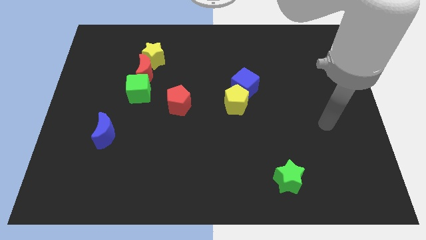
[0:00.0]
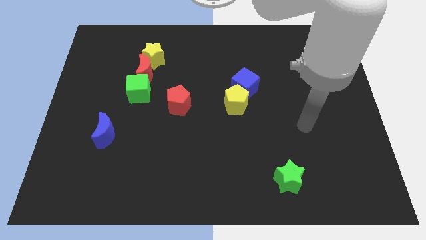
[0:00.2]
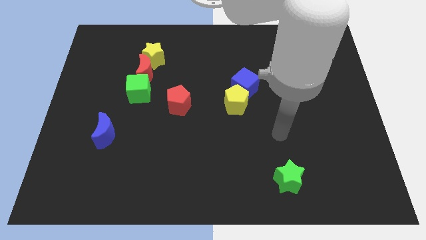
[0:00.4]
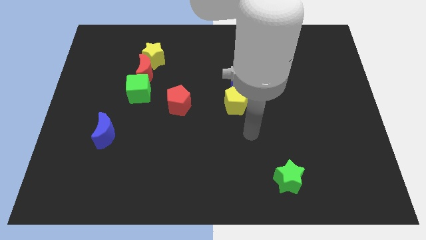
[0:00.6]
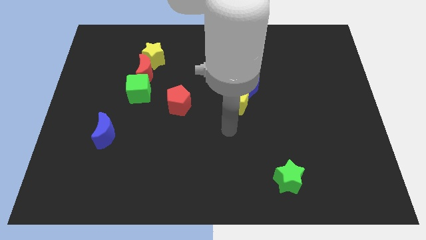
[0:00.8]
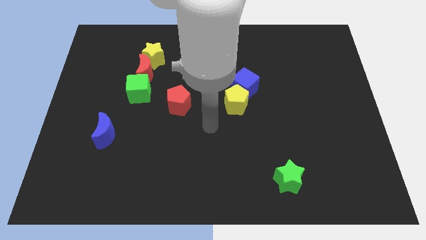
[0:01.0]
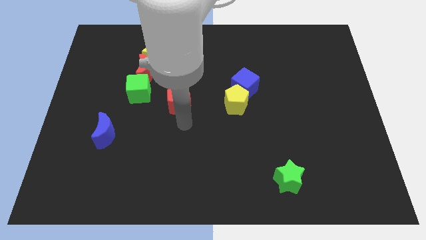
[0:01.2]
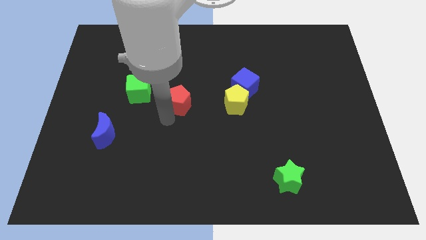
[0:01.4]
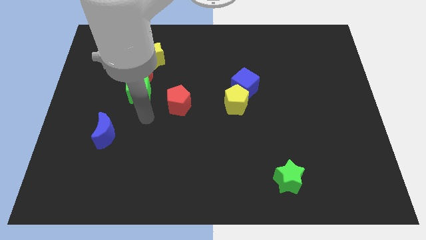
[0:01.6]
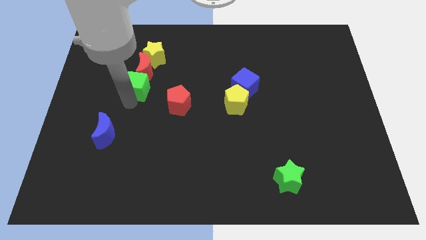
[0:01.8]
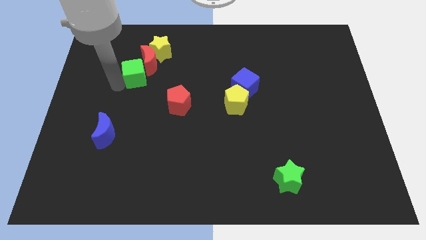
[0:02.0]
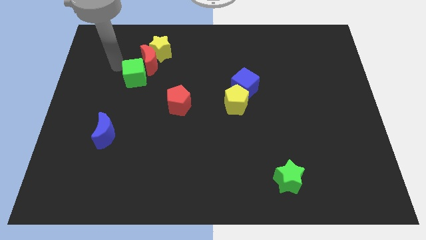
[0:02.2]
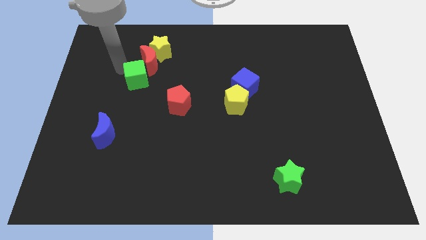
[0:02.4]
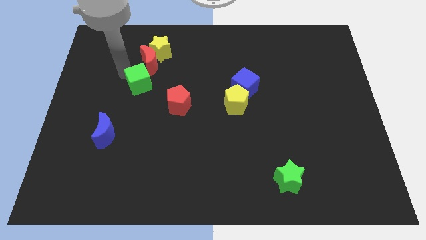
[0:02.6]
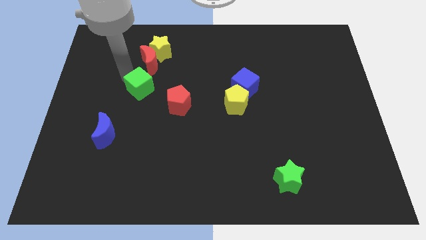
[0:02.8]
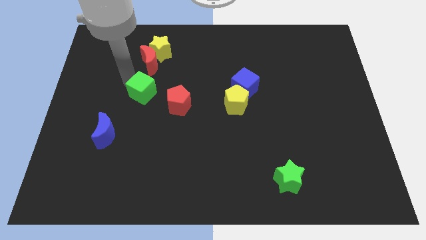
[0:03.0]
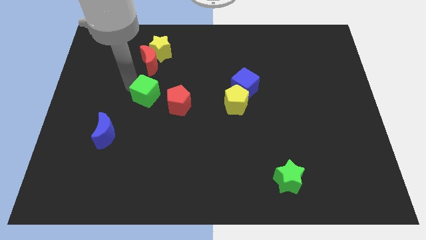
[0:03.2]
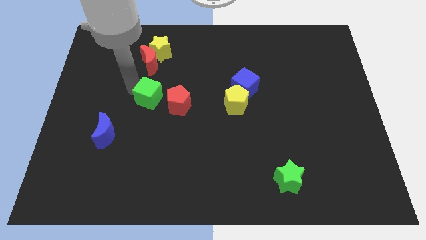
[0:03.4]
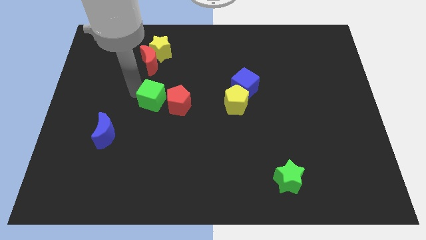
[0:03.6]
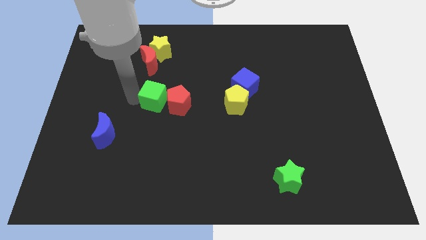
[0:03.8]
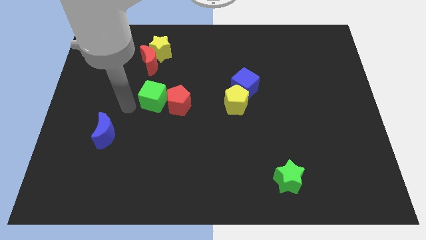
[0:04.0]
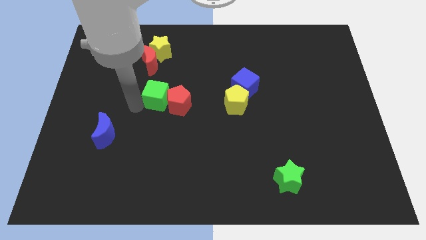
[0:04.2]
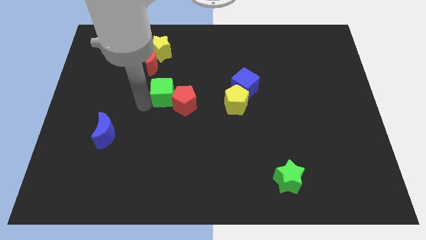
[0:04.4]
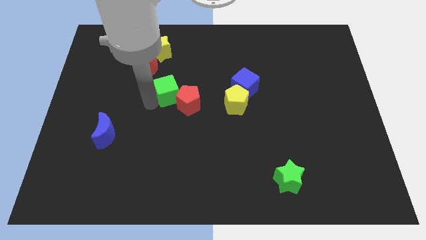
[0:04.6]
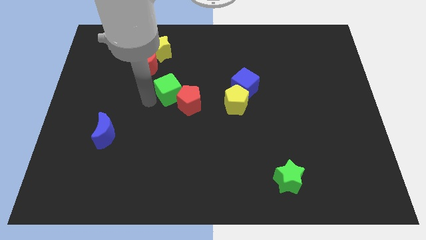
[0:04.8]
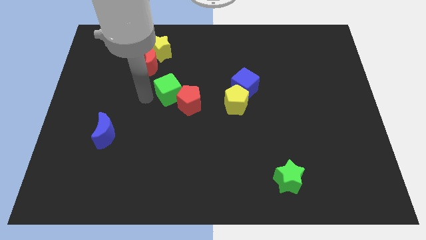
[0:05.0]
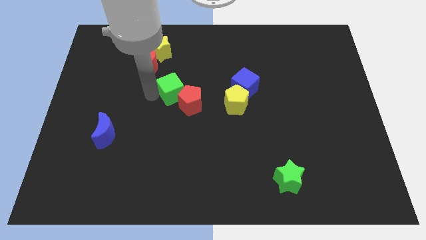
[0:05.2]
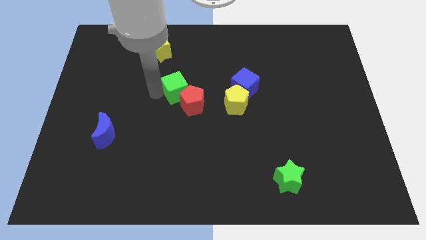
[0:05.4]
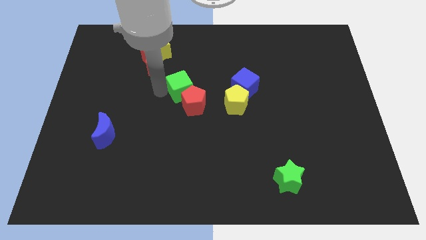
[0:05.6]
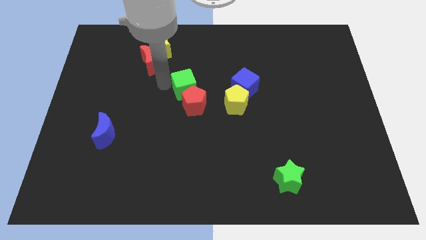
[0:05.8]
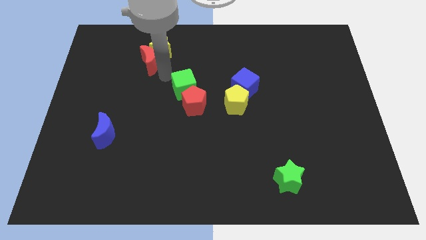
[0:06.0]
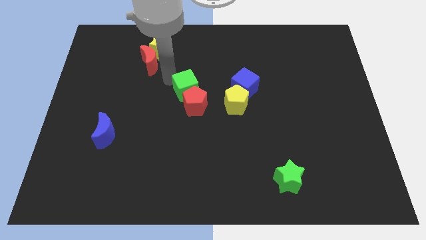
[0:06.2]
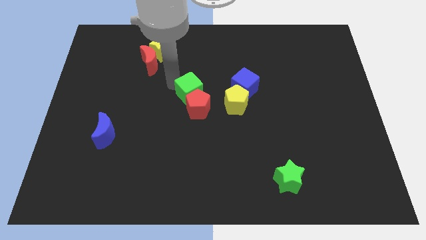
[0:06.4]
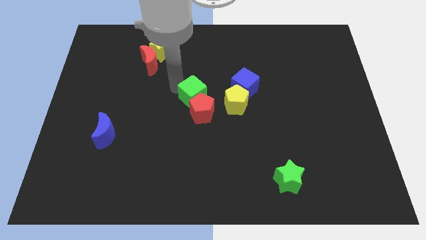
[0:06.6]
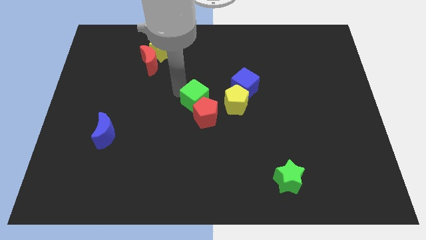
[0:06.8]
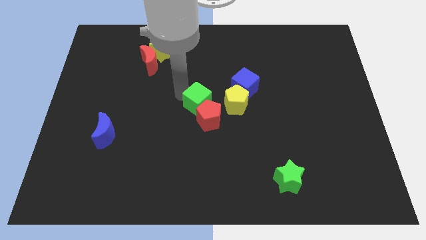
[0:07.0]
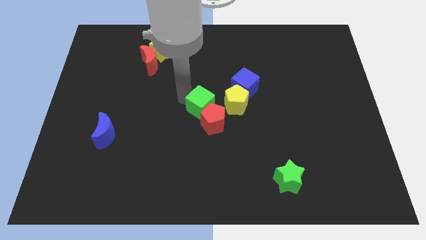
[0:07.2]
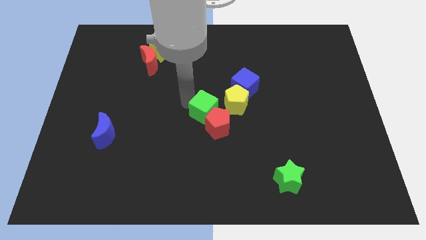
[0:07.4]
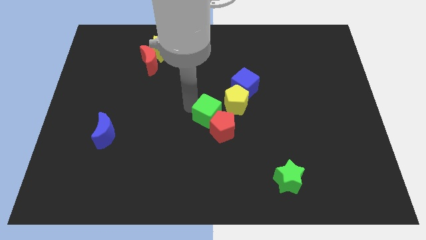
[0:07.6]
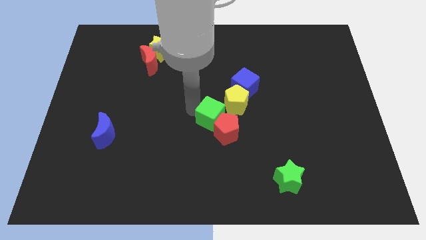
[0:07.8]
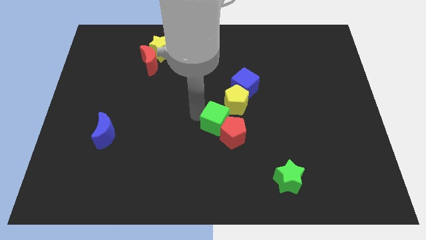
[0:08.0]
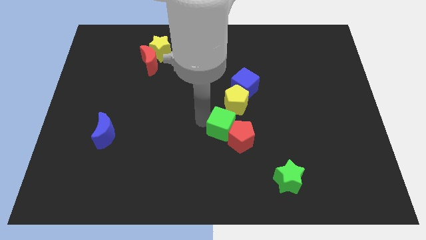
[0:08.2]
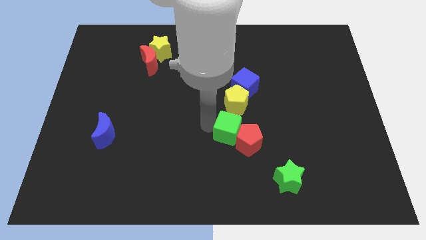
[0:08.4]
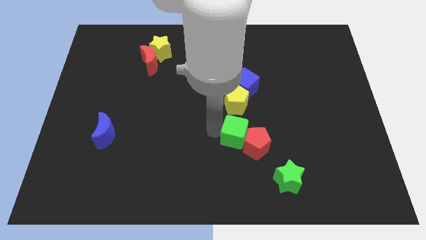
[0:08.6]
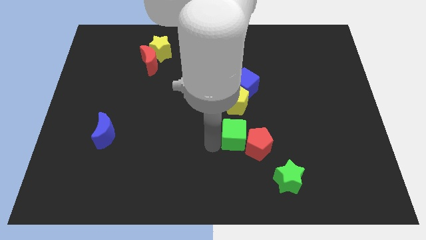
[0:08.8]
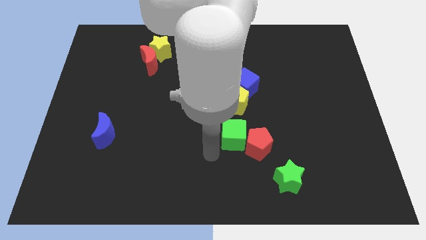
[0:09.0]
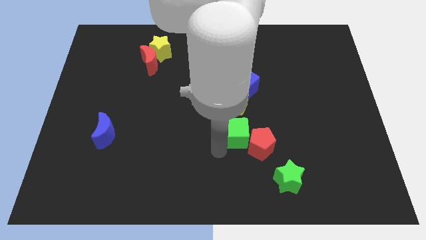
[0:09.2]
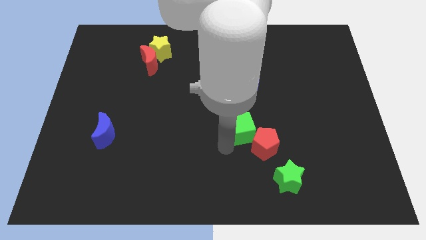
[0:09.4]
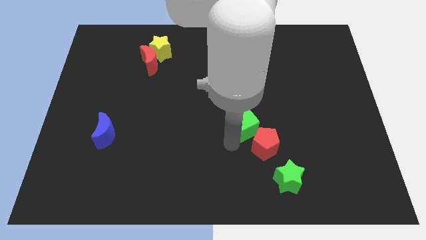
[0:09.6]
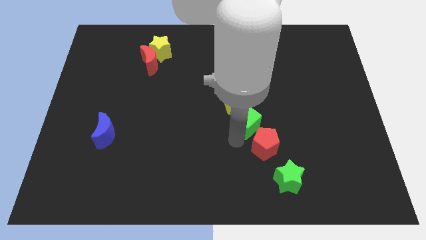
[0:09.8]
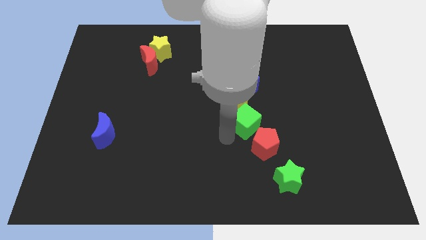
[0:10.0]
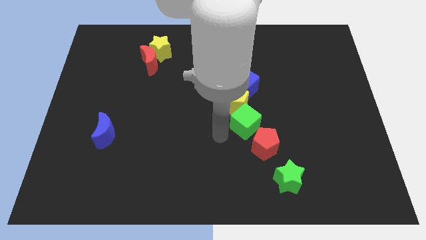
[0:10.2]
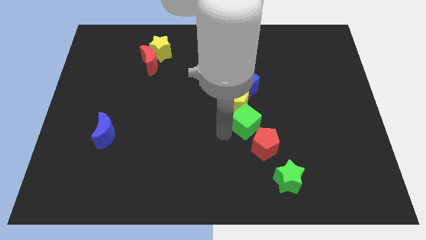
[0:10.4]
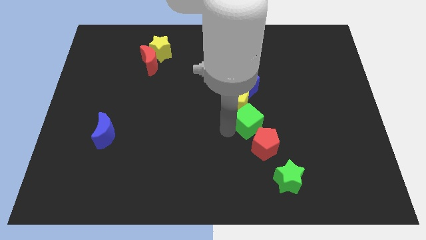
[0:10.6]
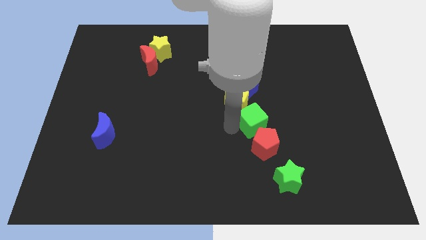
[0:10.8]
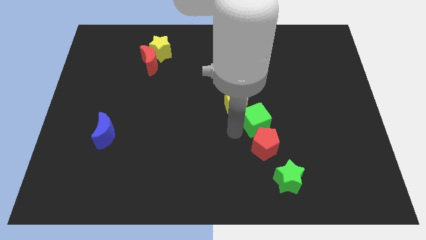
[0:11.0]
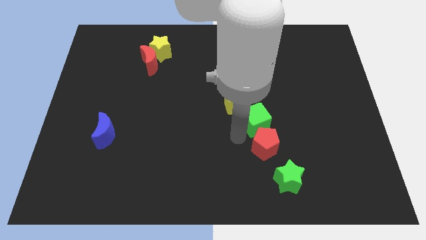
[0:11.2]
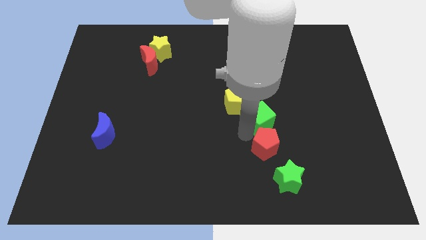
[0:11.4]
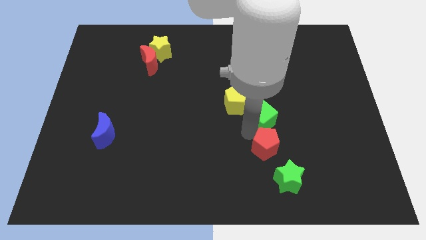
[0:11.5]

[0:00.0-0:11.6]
put the green cube to the right side of the yellow pentagon

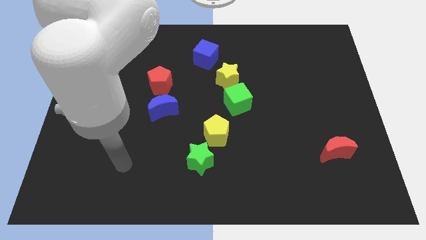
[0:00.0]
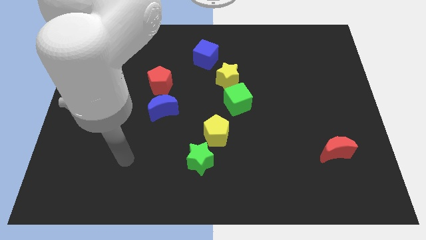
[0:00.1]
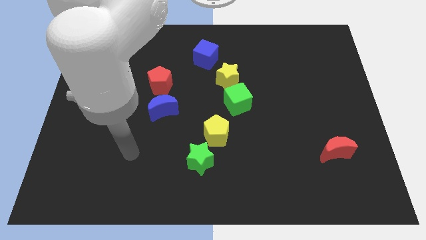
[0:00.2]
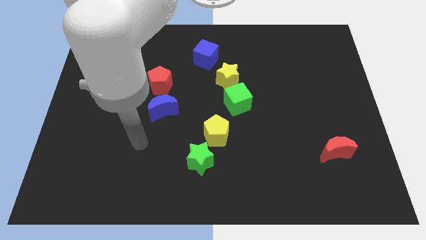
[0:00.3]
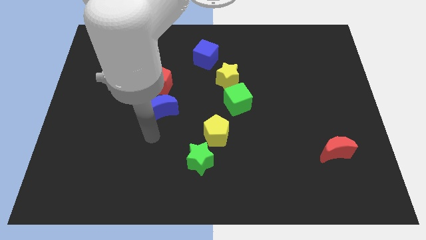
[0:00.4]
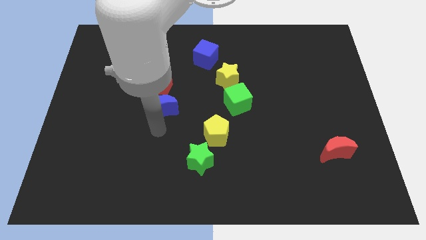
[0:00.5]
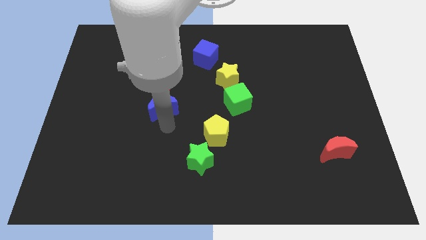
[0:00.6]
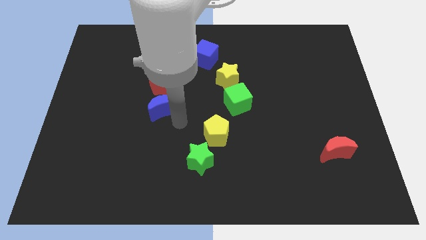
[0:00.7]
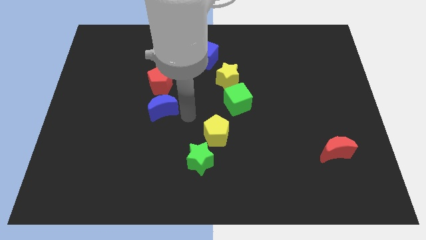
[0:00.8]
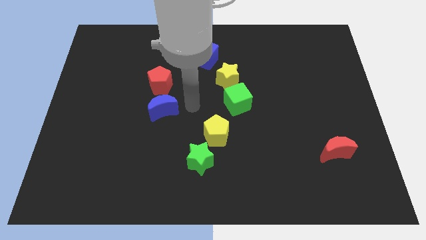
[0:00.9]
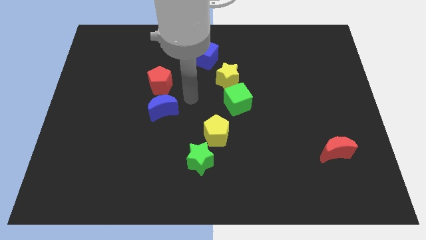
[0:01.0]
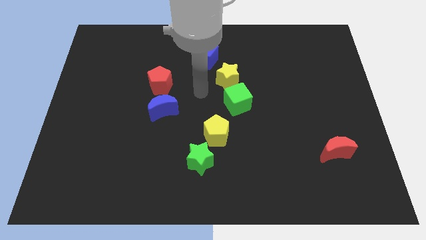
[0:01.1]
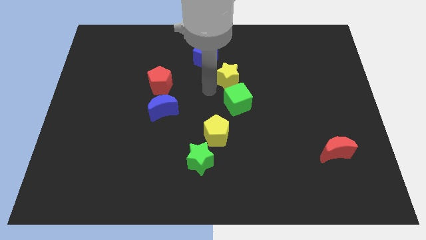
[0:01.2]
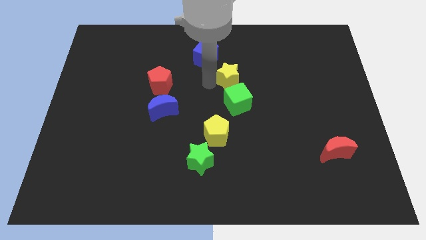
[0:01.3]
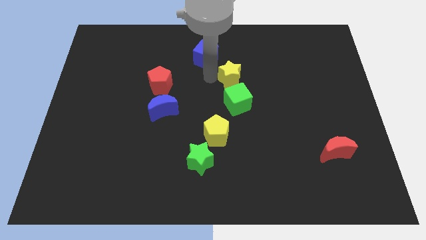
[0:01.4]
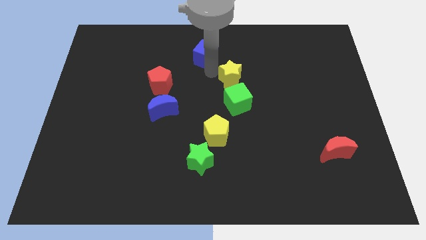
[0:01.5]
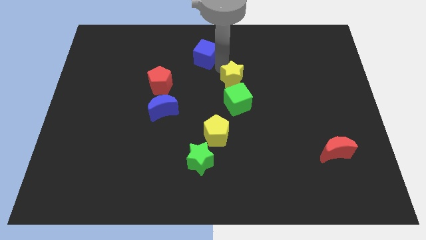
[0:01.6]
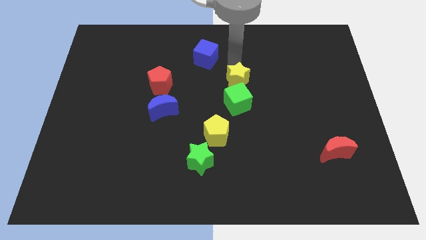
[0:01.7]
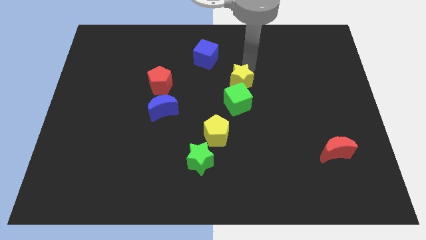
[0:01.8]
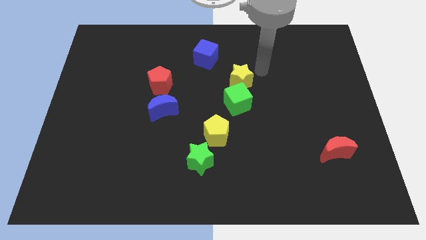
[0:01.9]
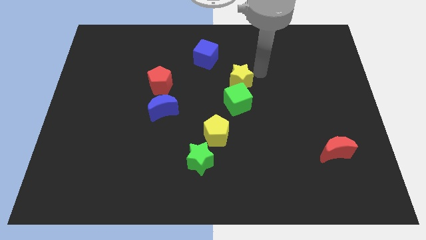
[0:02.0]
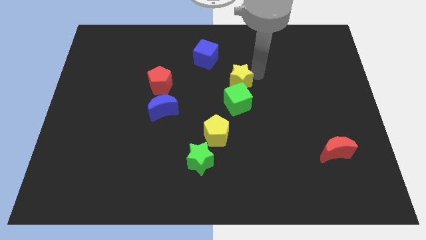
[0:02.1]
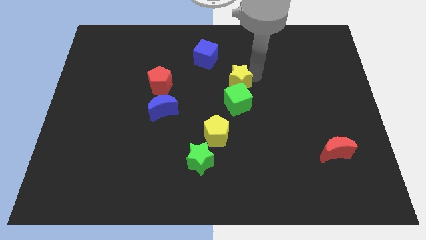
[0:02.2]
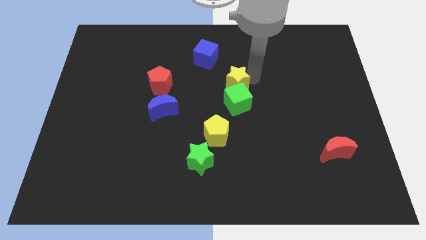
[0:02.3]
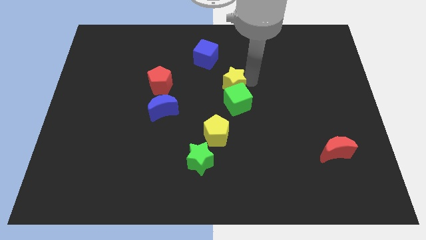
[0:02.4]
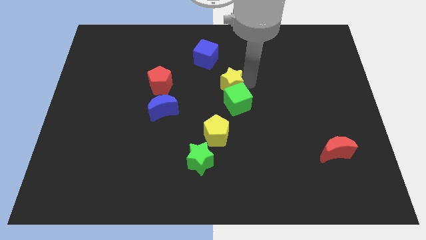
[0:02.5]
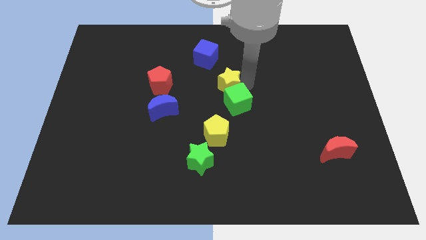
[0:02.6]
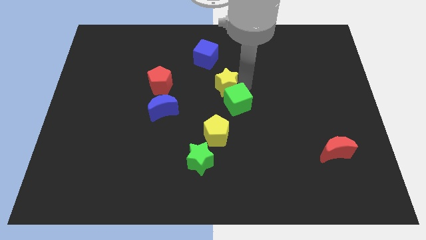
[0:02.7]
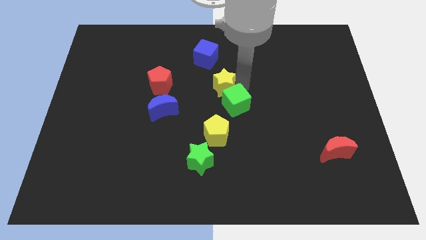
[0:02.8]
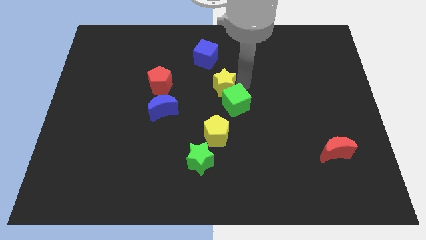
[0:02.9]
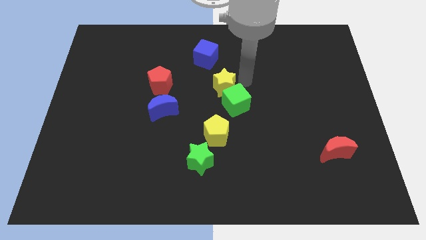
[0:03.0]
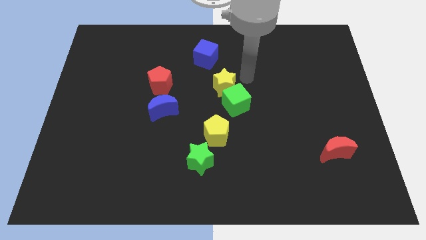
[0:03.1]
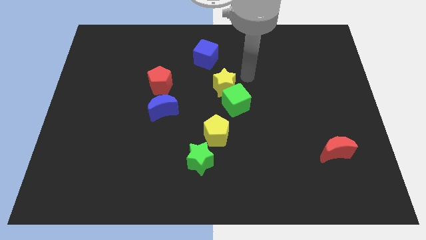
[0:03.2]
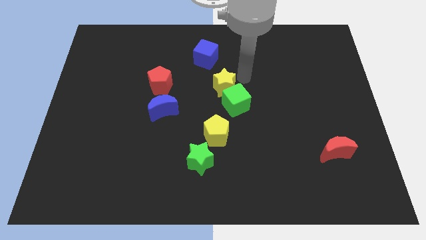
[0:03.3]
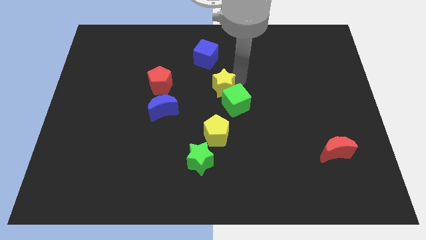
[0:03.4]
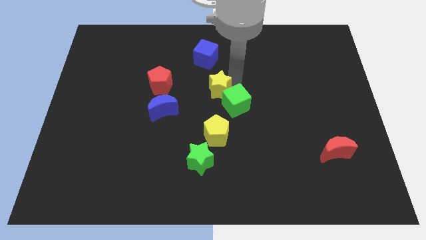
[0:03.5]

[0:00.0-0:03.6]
move the yellow star to the left side of the green cube
